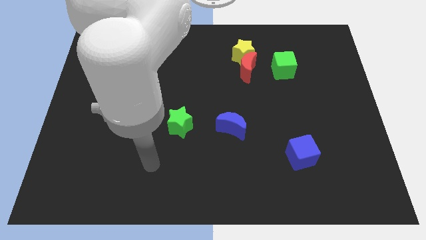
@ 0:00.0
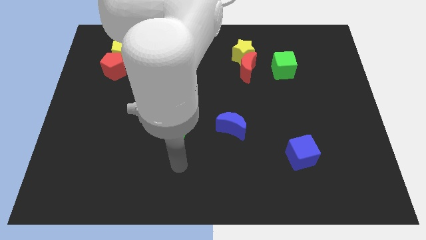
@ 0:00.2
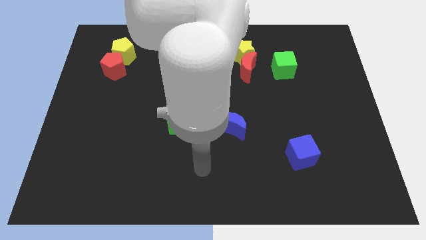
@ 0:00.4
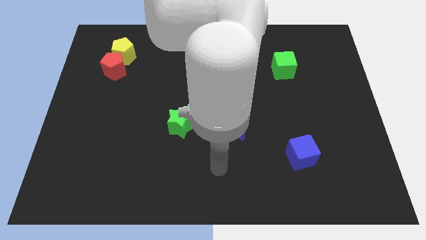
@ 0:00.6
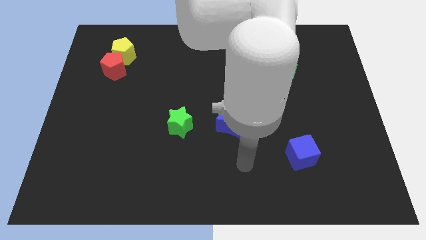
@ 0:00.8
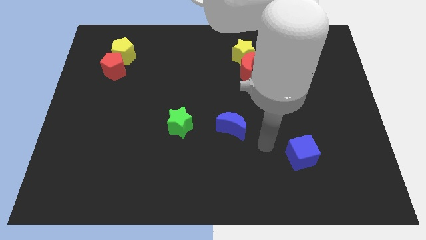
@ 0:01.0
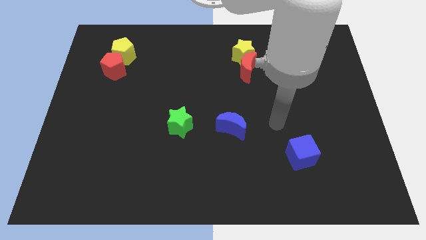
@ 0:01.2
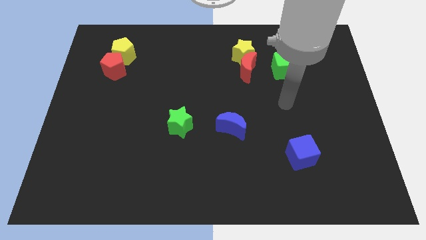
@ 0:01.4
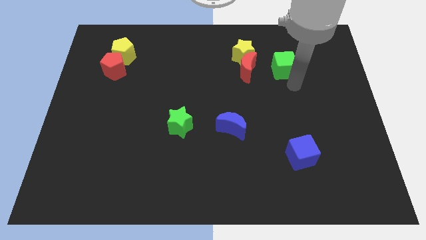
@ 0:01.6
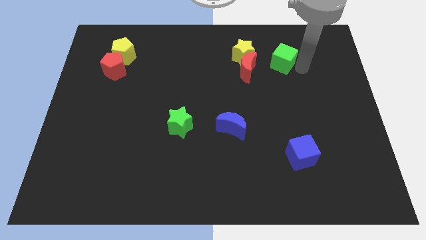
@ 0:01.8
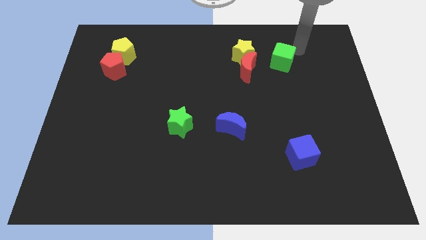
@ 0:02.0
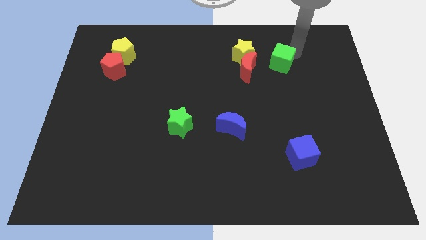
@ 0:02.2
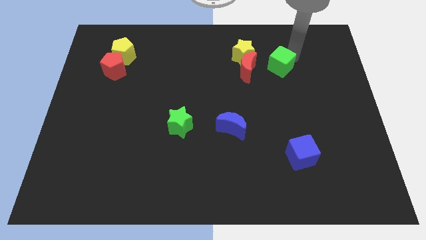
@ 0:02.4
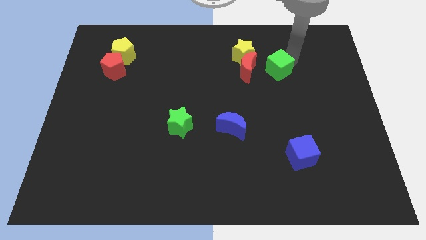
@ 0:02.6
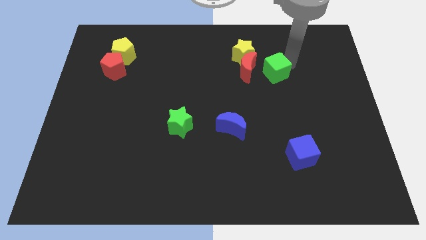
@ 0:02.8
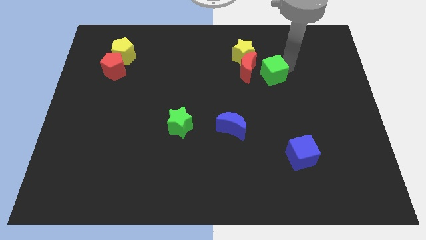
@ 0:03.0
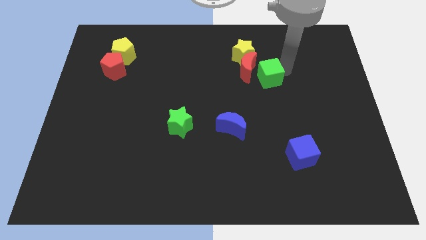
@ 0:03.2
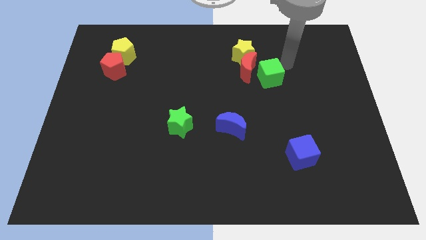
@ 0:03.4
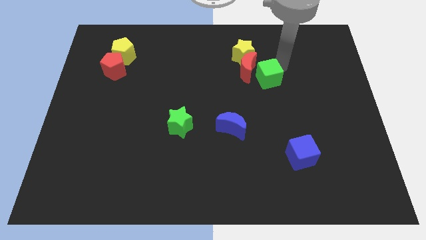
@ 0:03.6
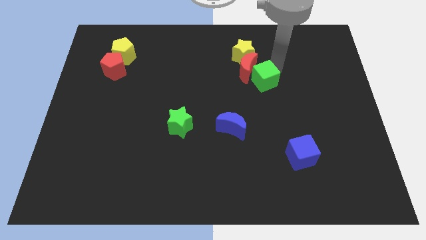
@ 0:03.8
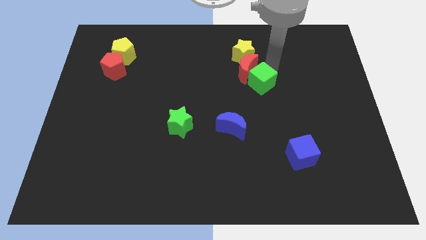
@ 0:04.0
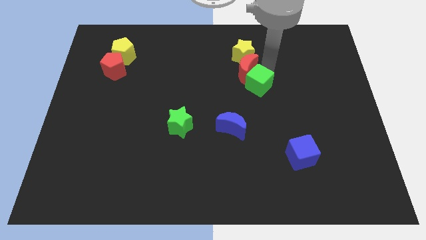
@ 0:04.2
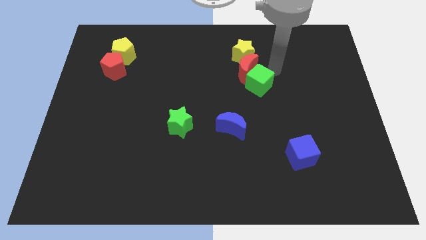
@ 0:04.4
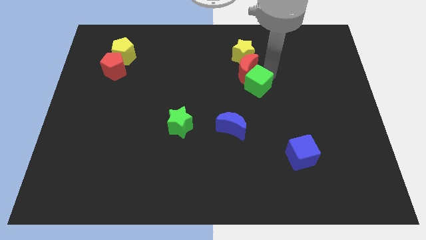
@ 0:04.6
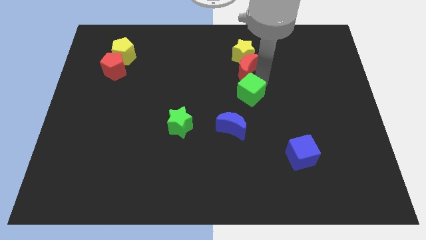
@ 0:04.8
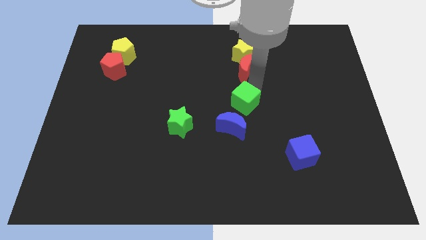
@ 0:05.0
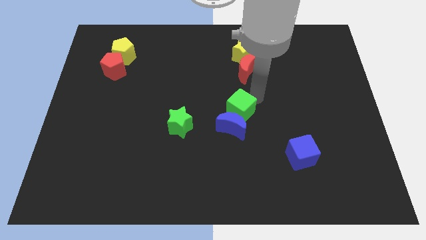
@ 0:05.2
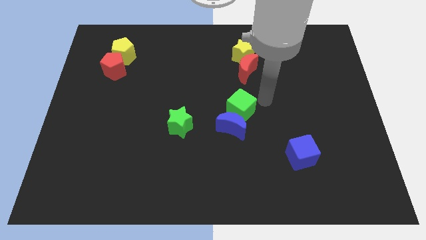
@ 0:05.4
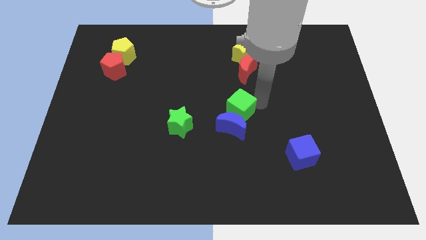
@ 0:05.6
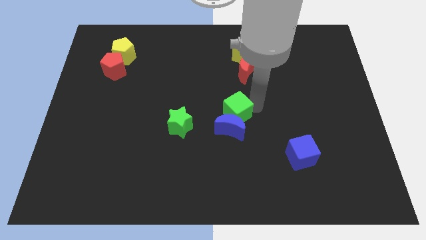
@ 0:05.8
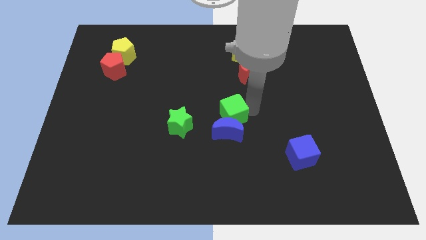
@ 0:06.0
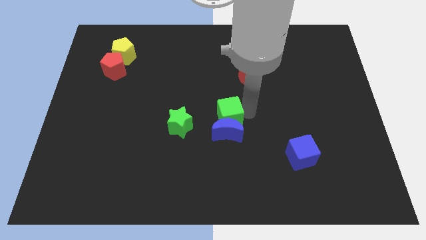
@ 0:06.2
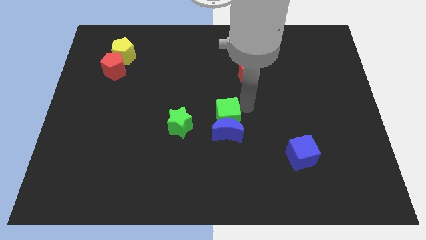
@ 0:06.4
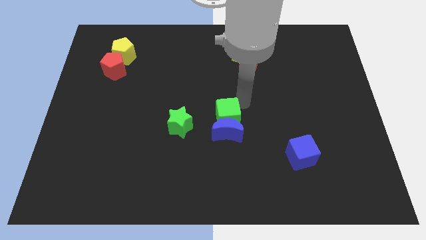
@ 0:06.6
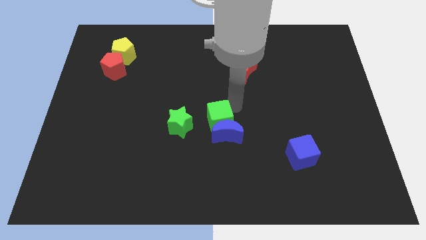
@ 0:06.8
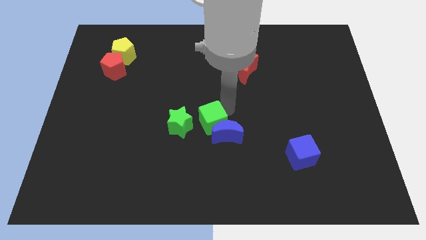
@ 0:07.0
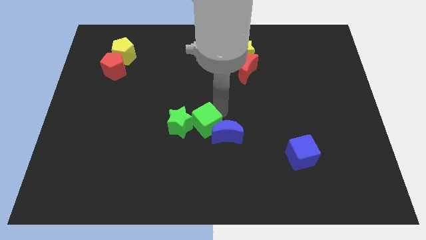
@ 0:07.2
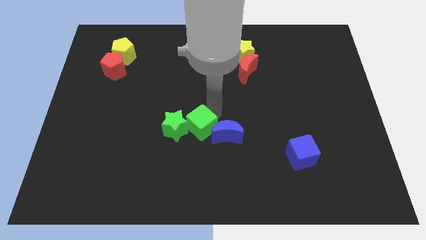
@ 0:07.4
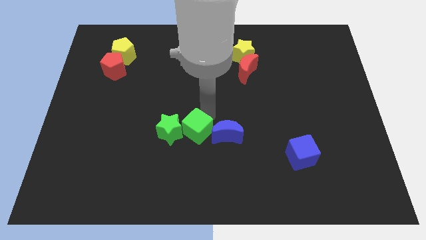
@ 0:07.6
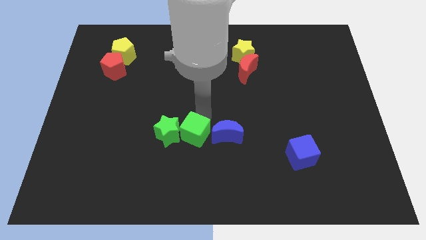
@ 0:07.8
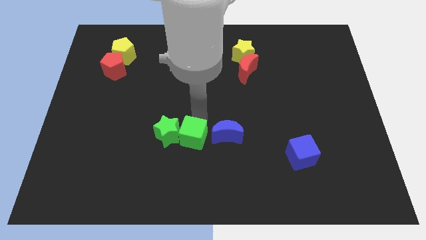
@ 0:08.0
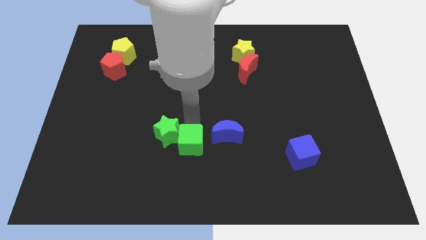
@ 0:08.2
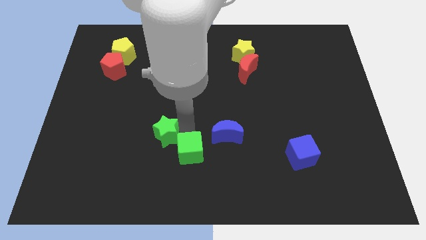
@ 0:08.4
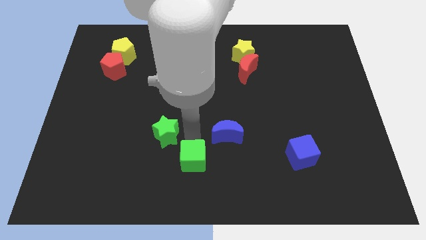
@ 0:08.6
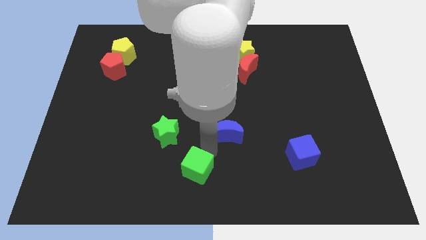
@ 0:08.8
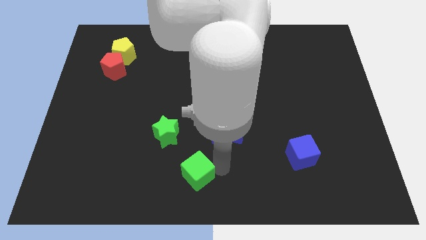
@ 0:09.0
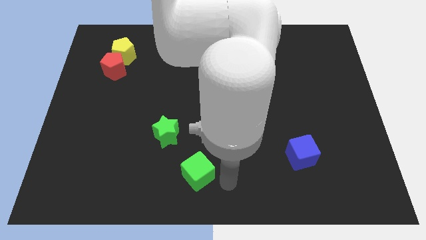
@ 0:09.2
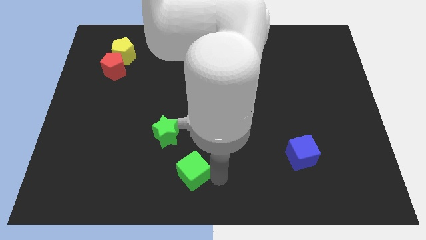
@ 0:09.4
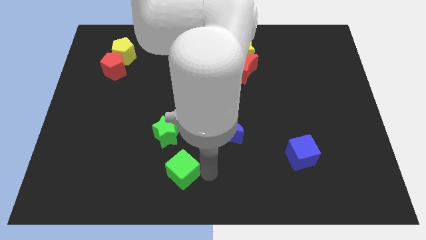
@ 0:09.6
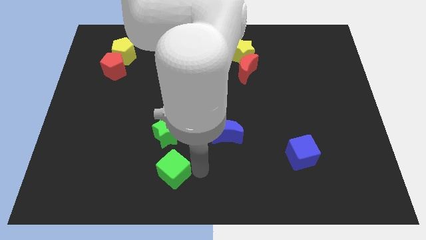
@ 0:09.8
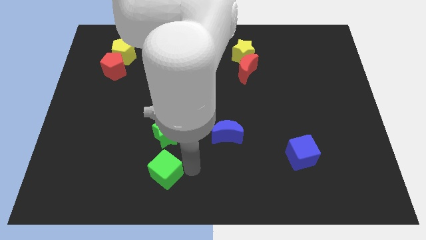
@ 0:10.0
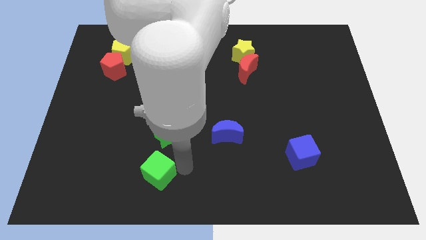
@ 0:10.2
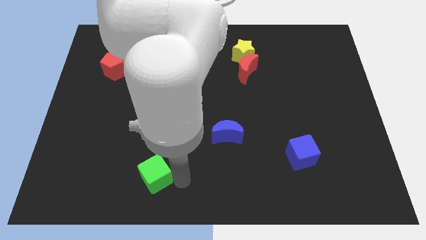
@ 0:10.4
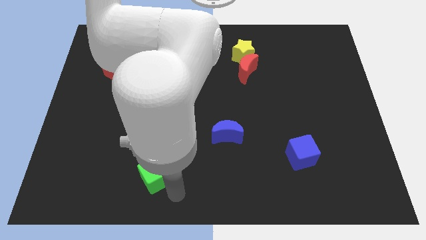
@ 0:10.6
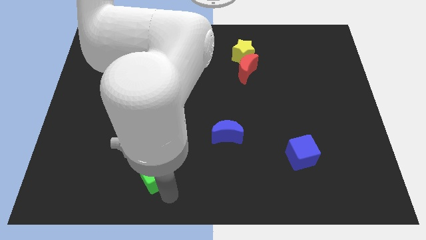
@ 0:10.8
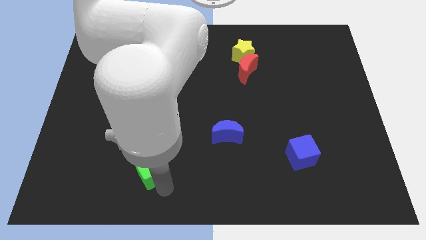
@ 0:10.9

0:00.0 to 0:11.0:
put the green cube to the bottom left of the green star

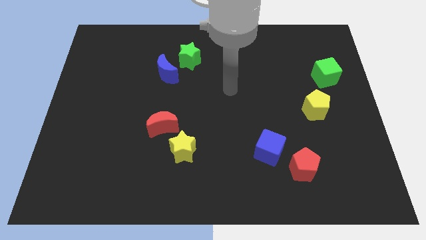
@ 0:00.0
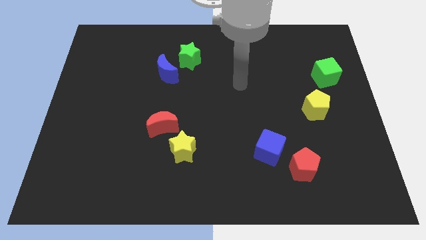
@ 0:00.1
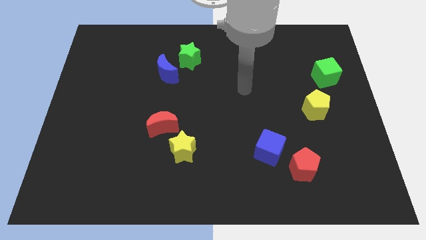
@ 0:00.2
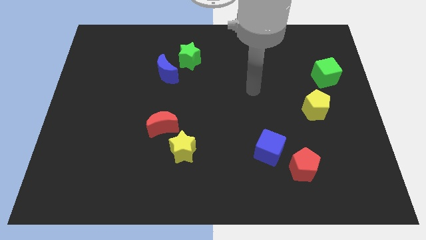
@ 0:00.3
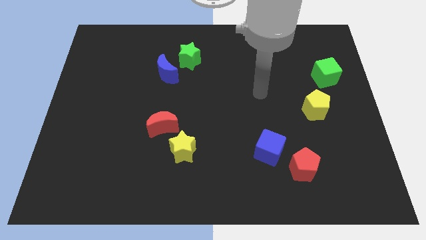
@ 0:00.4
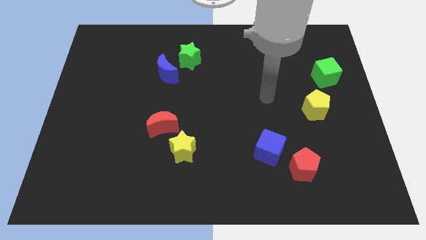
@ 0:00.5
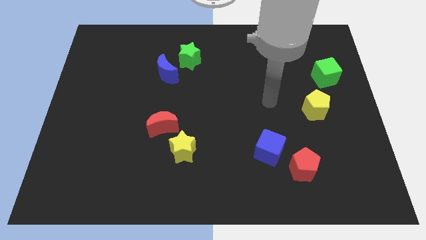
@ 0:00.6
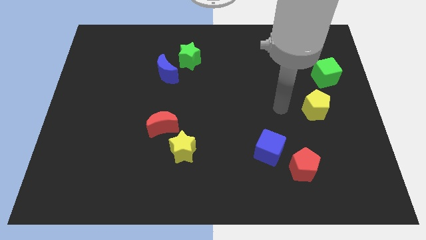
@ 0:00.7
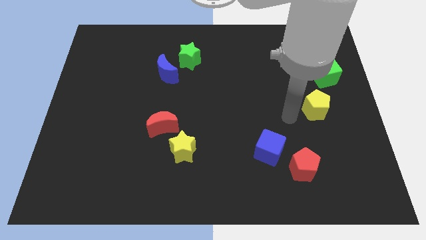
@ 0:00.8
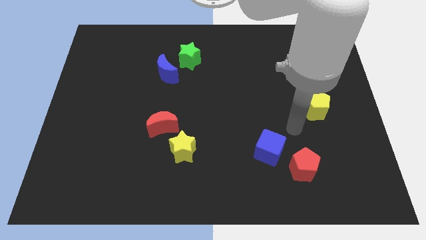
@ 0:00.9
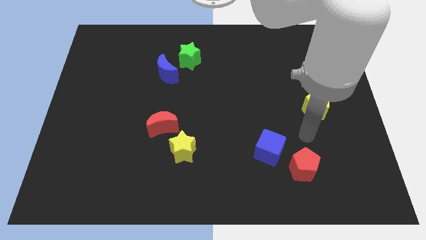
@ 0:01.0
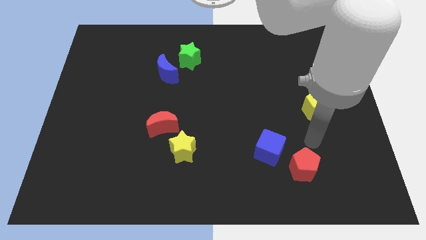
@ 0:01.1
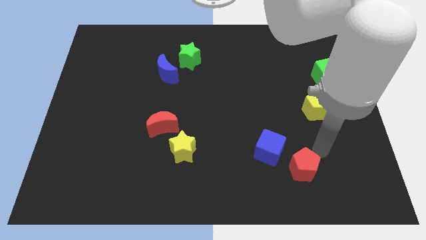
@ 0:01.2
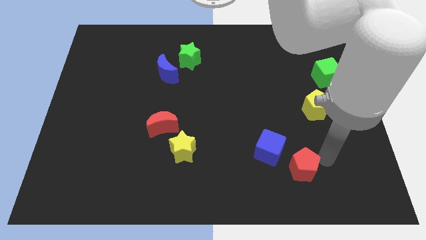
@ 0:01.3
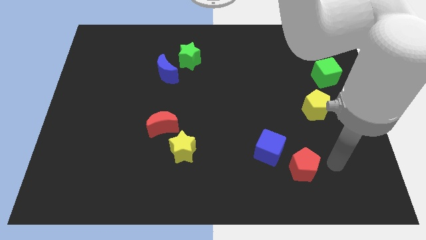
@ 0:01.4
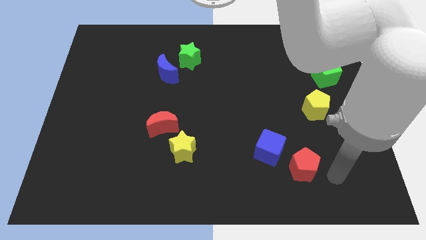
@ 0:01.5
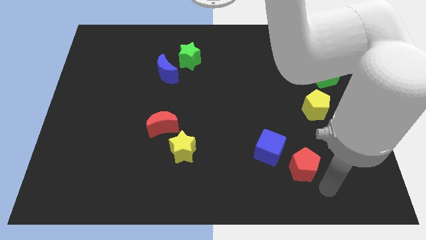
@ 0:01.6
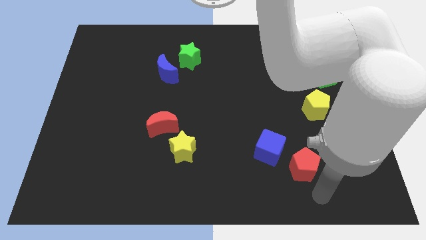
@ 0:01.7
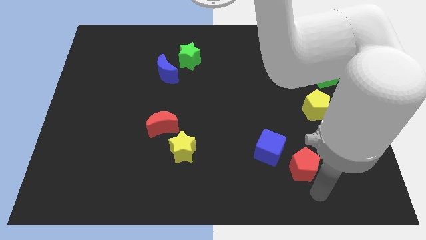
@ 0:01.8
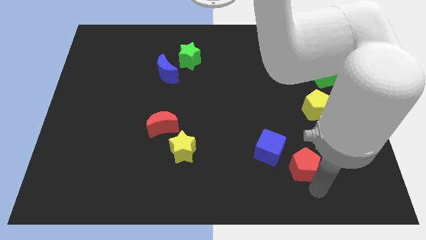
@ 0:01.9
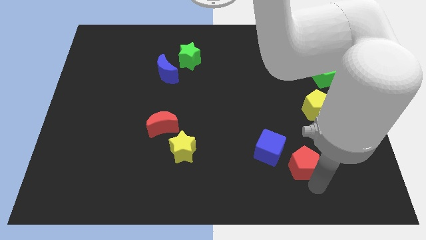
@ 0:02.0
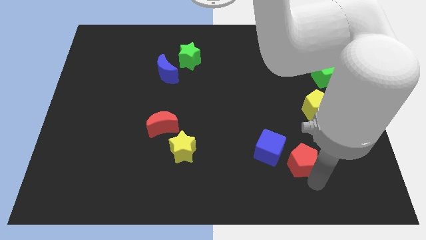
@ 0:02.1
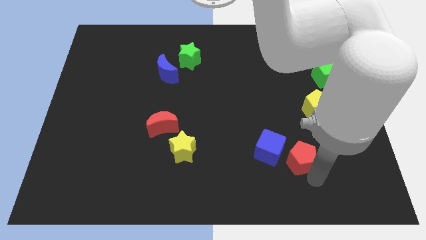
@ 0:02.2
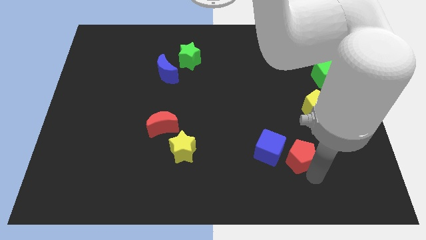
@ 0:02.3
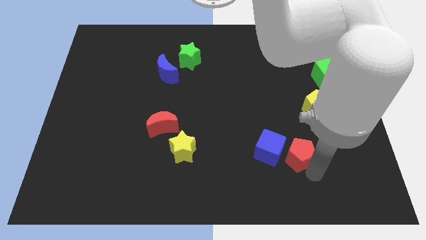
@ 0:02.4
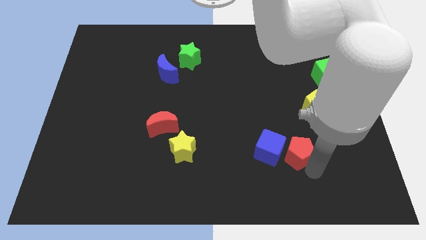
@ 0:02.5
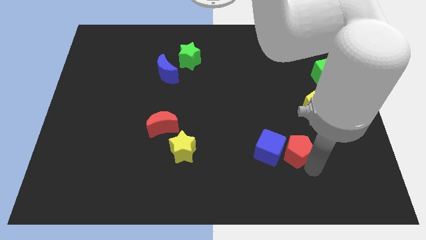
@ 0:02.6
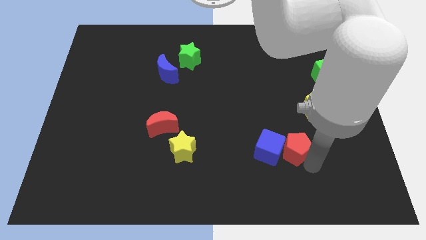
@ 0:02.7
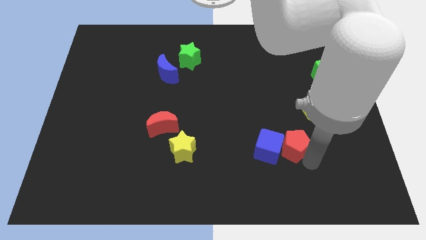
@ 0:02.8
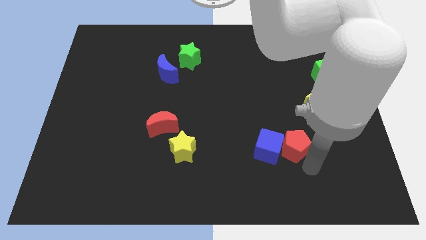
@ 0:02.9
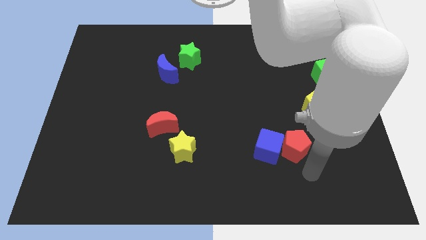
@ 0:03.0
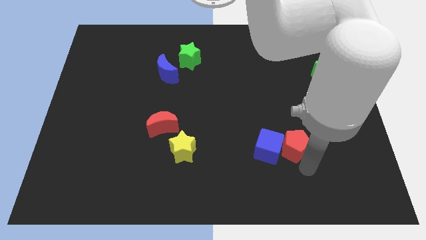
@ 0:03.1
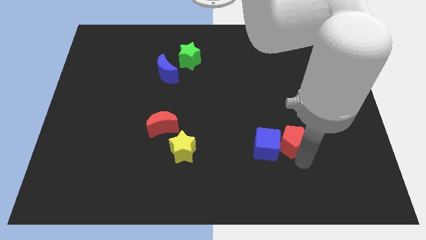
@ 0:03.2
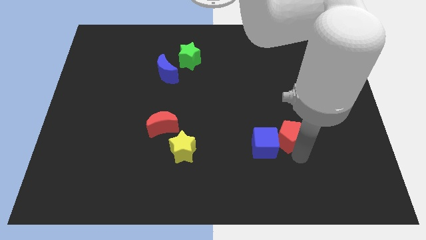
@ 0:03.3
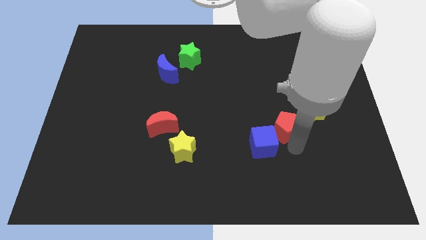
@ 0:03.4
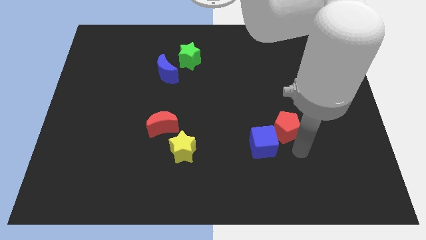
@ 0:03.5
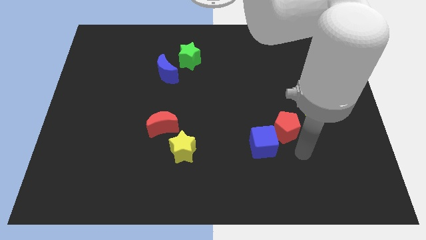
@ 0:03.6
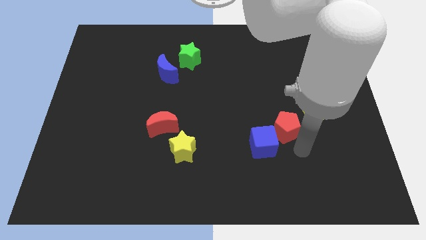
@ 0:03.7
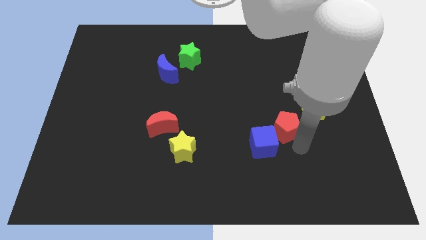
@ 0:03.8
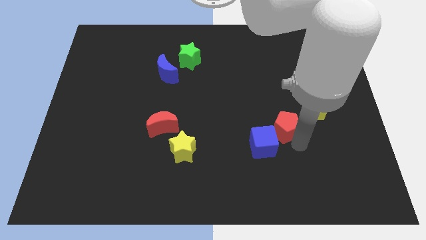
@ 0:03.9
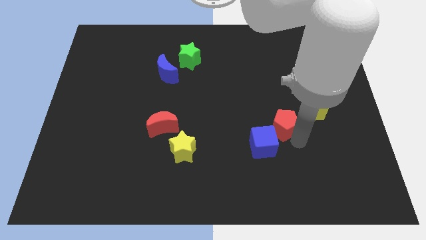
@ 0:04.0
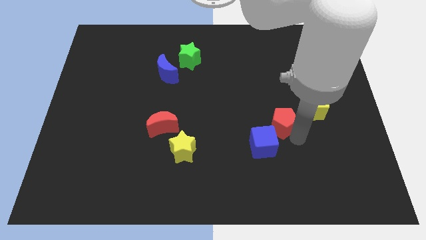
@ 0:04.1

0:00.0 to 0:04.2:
put the red pentagon left of the yellow pentagon
